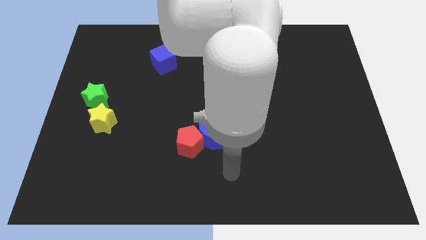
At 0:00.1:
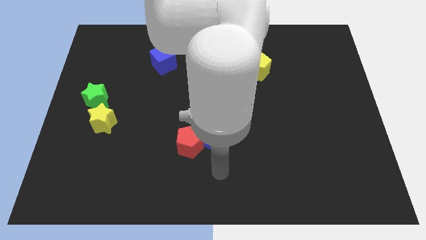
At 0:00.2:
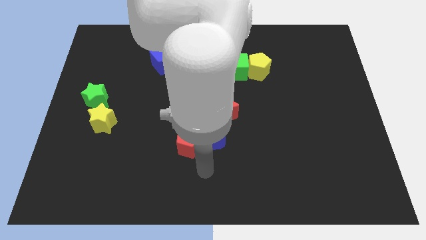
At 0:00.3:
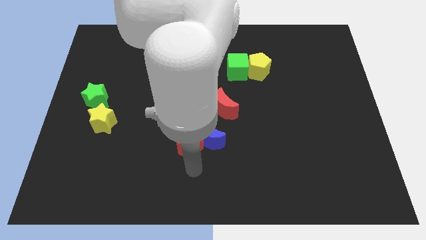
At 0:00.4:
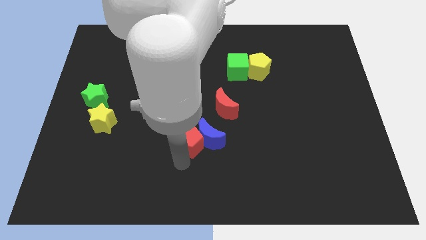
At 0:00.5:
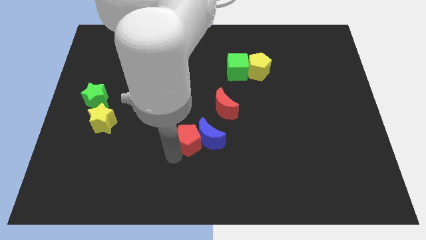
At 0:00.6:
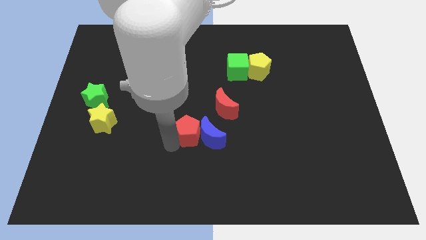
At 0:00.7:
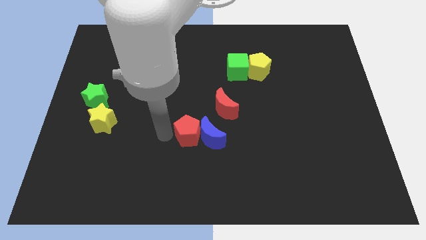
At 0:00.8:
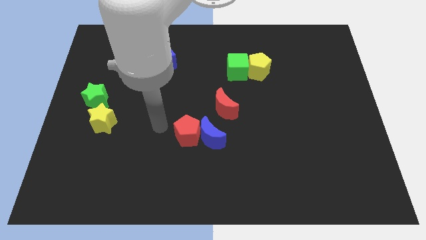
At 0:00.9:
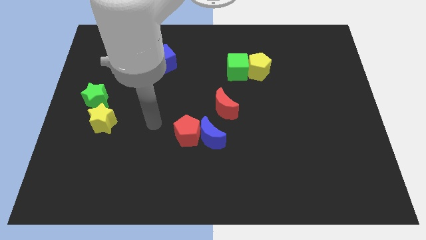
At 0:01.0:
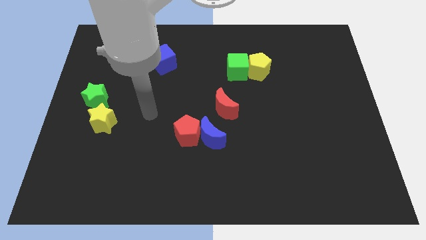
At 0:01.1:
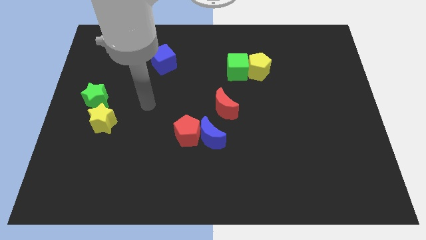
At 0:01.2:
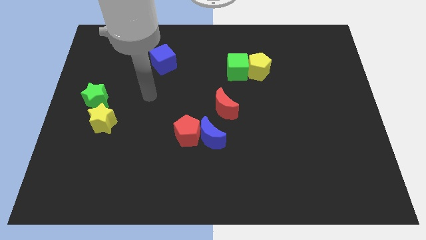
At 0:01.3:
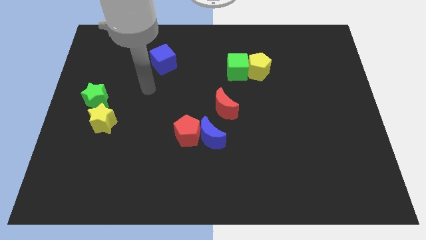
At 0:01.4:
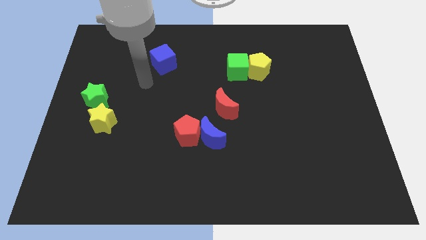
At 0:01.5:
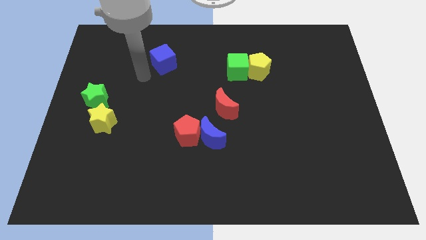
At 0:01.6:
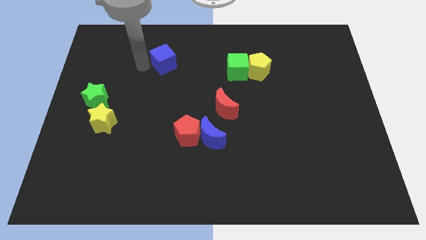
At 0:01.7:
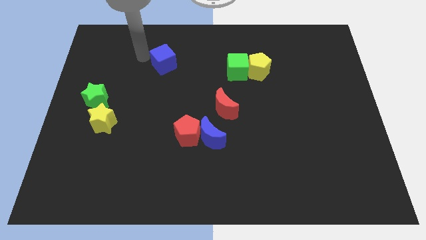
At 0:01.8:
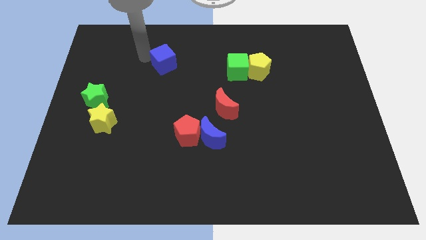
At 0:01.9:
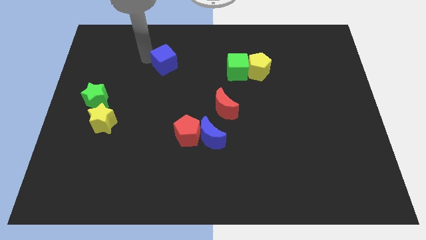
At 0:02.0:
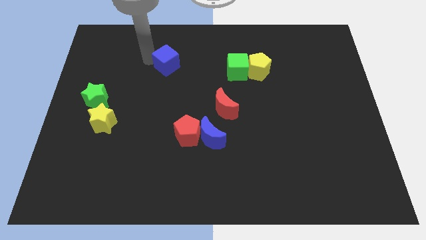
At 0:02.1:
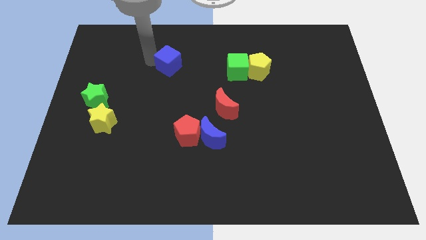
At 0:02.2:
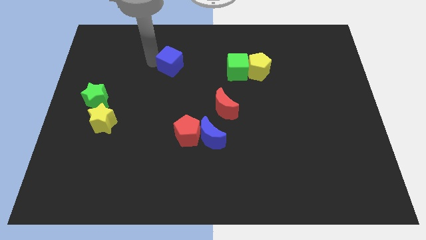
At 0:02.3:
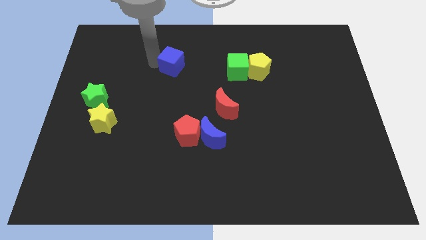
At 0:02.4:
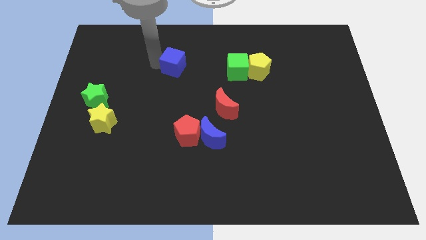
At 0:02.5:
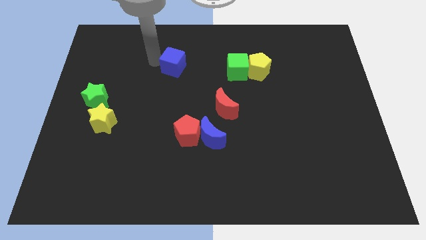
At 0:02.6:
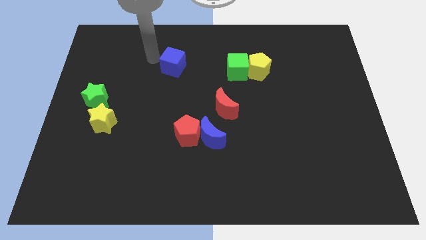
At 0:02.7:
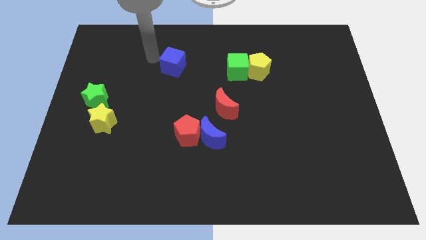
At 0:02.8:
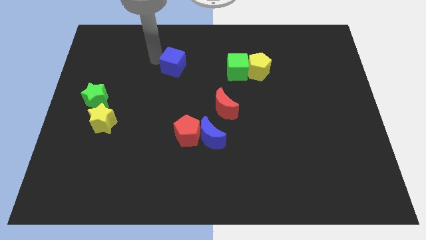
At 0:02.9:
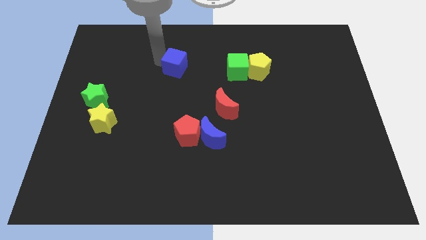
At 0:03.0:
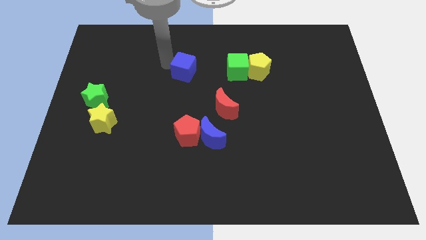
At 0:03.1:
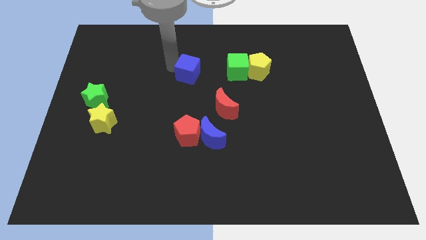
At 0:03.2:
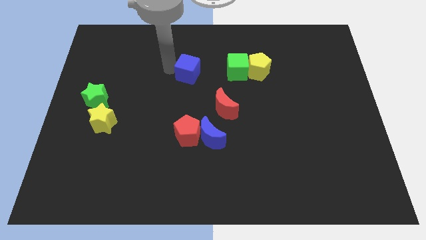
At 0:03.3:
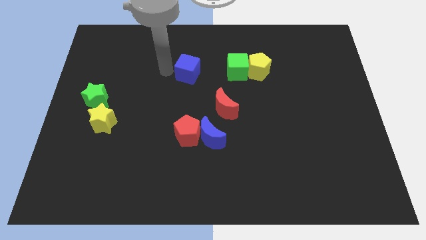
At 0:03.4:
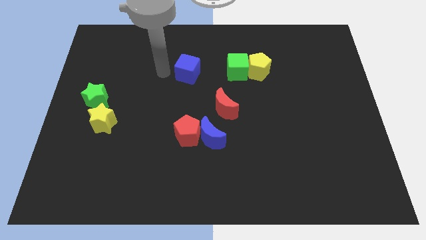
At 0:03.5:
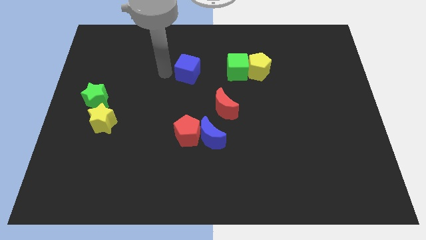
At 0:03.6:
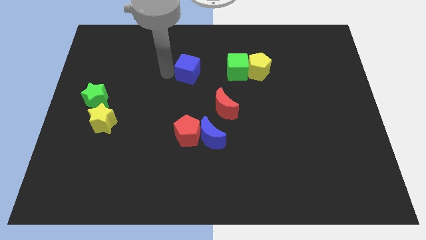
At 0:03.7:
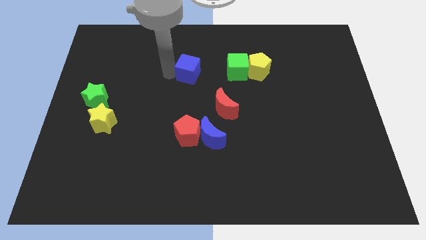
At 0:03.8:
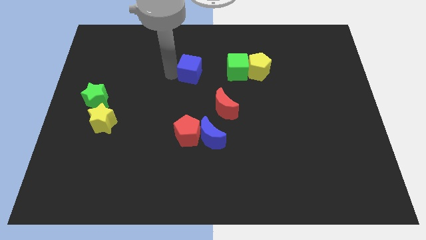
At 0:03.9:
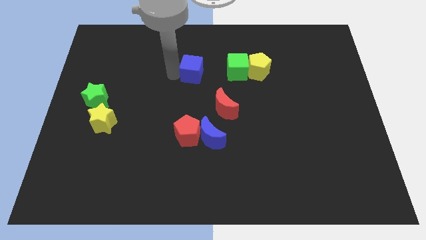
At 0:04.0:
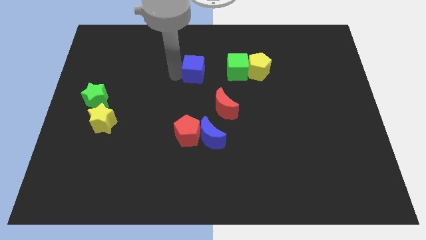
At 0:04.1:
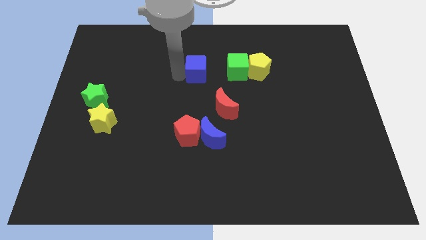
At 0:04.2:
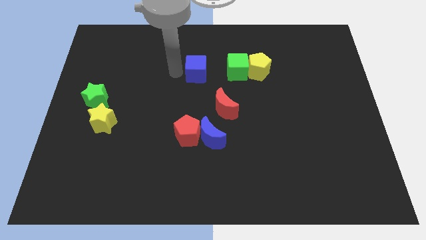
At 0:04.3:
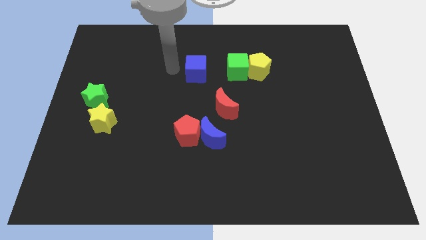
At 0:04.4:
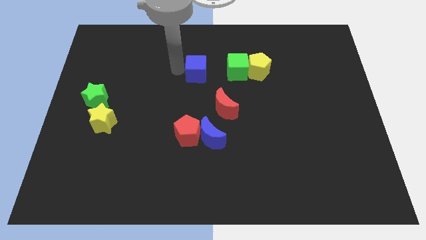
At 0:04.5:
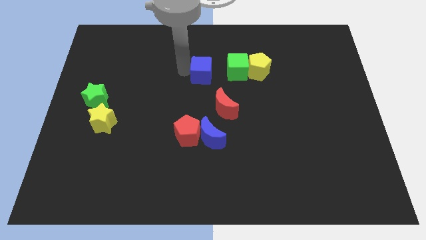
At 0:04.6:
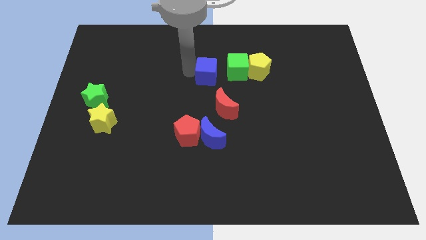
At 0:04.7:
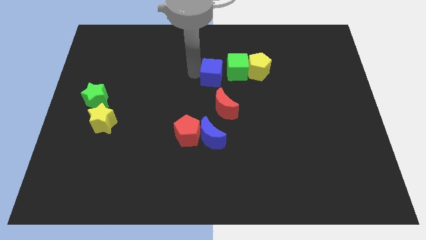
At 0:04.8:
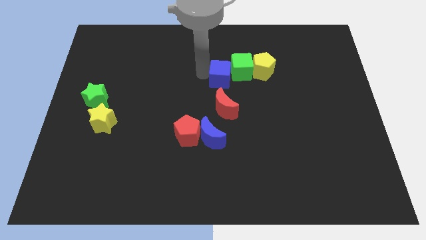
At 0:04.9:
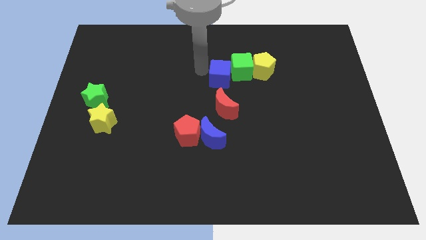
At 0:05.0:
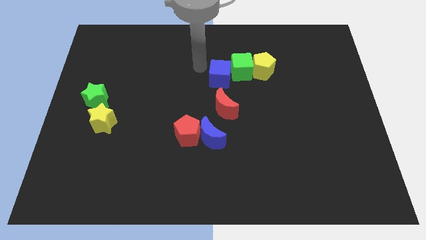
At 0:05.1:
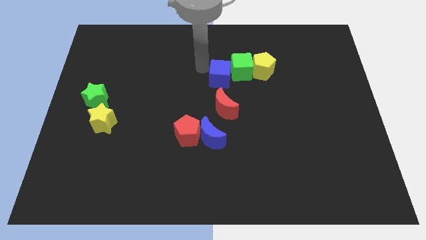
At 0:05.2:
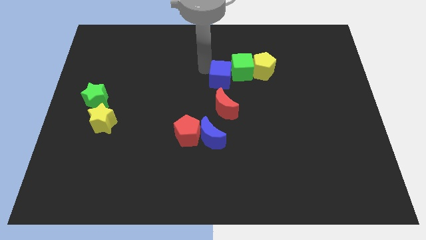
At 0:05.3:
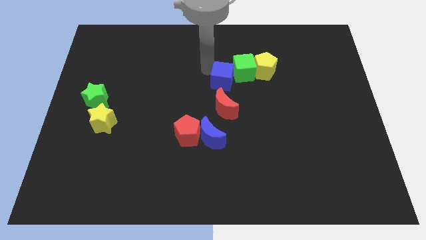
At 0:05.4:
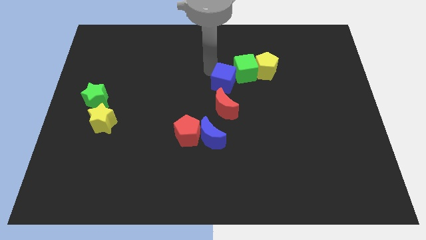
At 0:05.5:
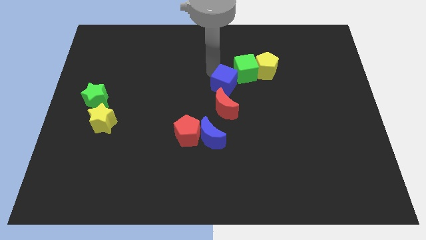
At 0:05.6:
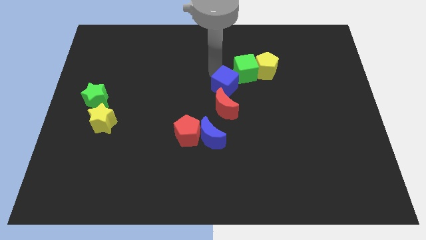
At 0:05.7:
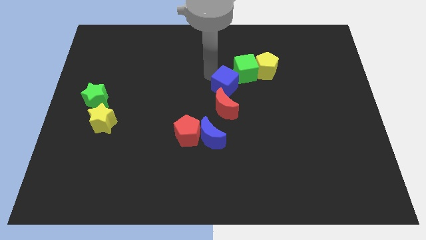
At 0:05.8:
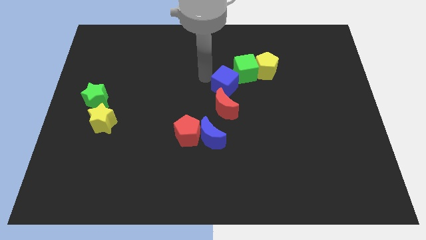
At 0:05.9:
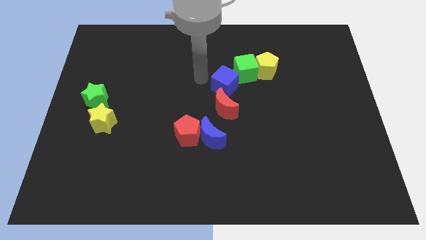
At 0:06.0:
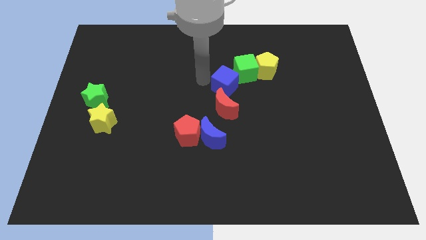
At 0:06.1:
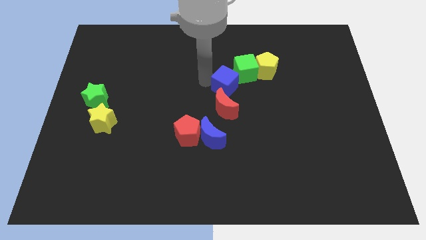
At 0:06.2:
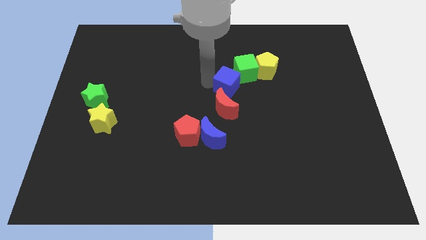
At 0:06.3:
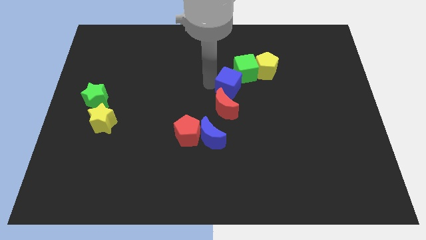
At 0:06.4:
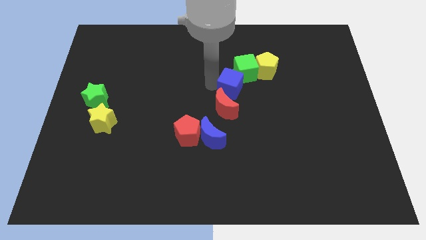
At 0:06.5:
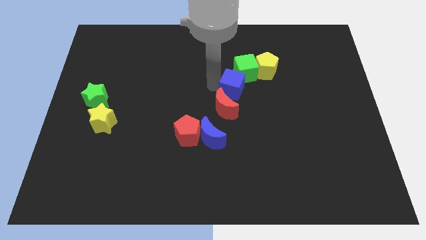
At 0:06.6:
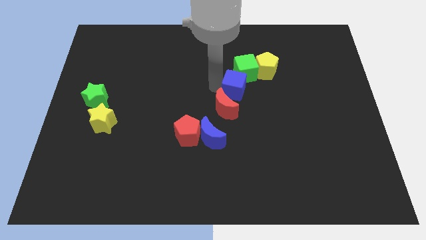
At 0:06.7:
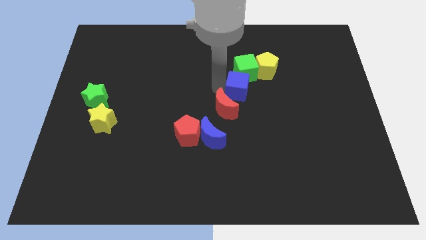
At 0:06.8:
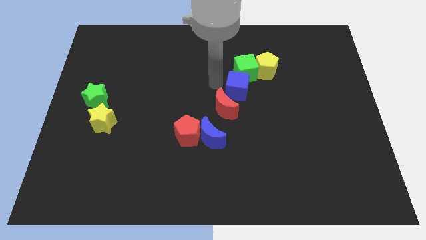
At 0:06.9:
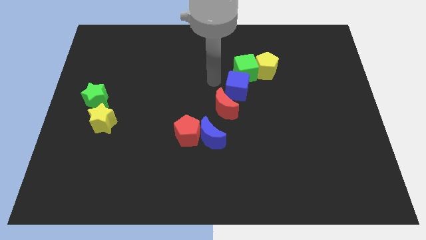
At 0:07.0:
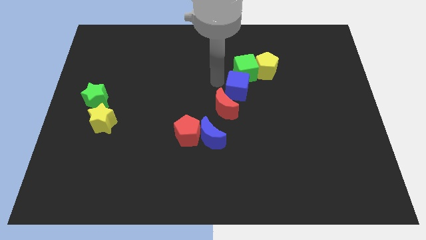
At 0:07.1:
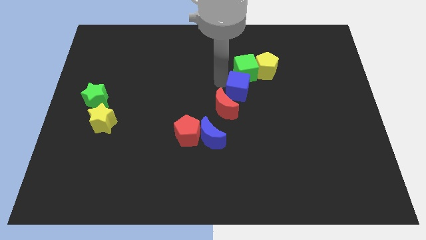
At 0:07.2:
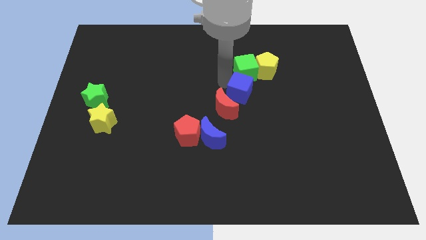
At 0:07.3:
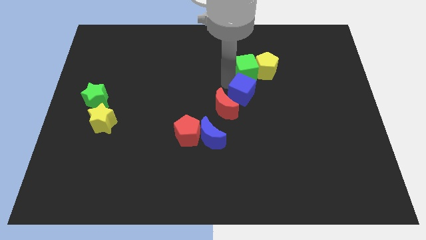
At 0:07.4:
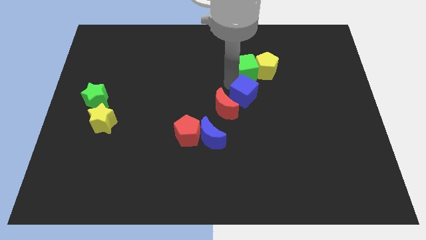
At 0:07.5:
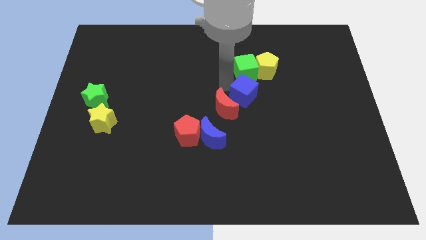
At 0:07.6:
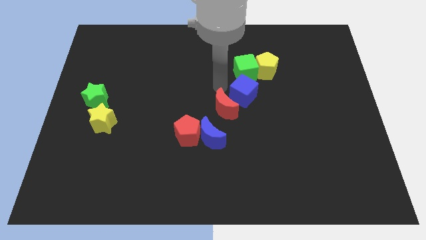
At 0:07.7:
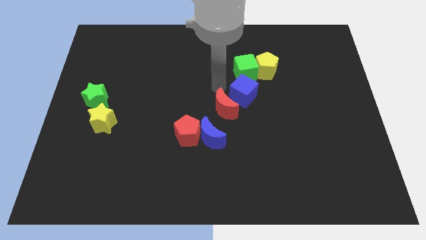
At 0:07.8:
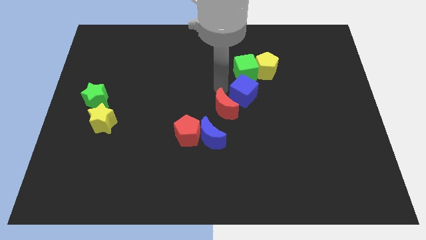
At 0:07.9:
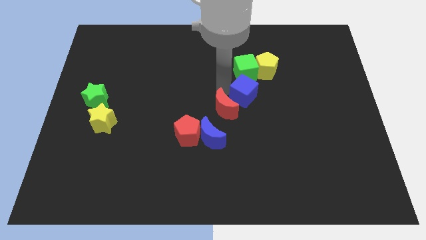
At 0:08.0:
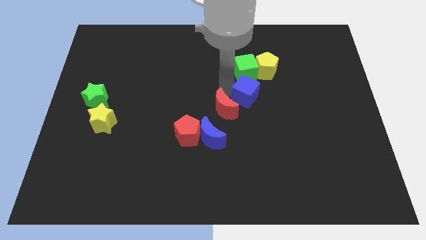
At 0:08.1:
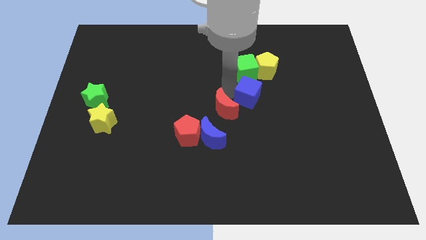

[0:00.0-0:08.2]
move the blue cube to the bottom of the yellow pentagon
